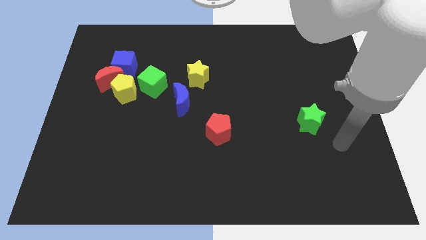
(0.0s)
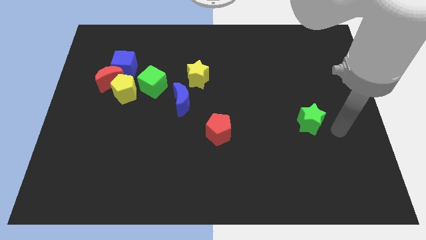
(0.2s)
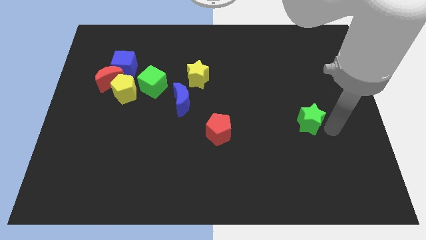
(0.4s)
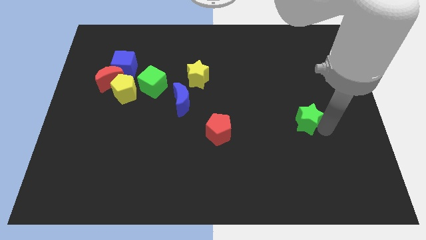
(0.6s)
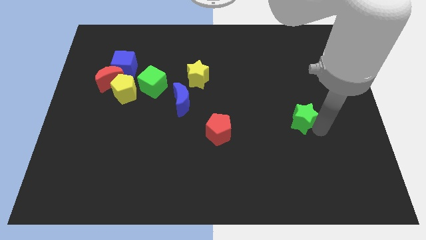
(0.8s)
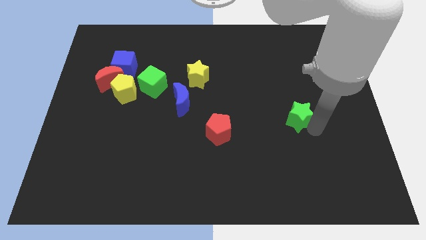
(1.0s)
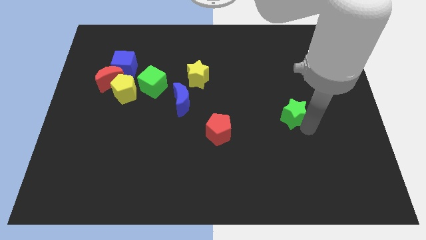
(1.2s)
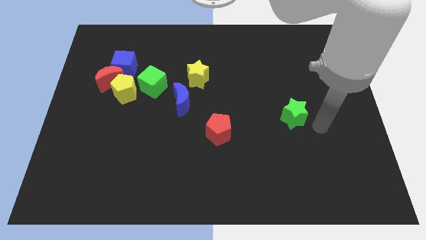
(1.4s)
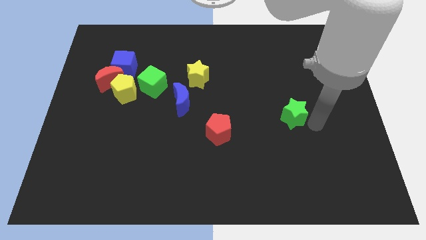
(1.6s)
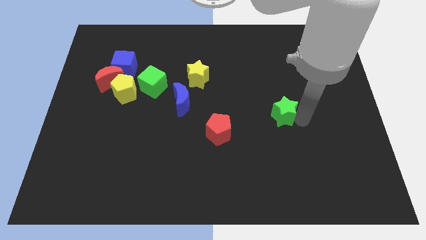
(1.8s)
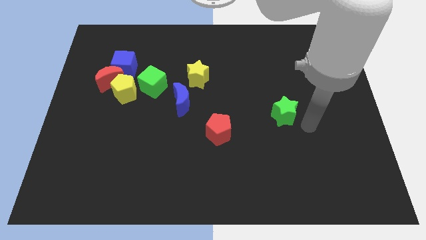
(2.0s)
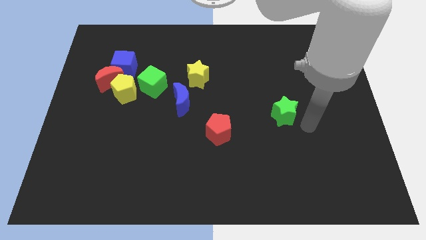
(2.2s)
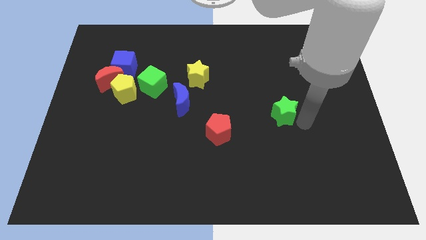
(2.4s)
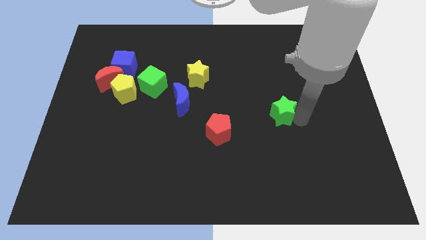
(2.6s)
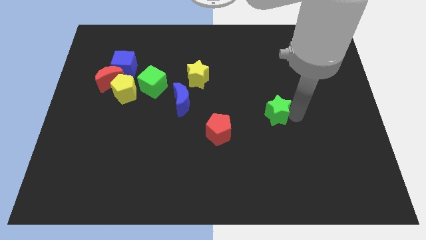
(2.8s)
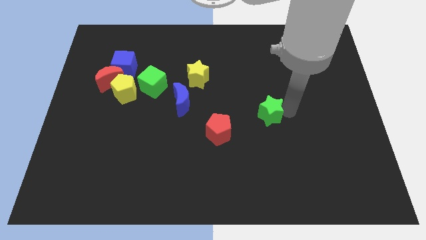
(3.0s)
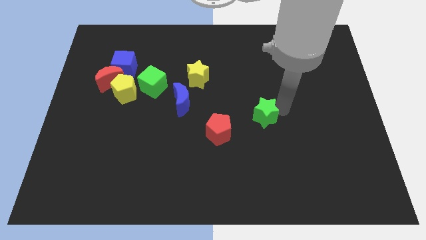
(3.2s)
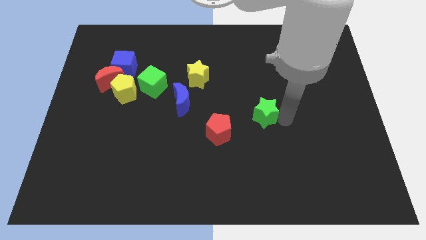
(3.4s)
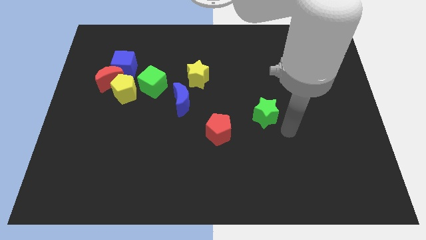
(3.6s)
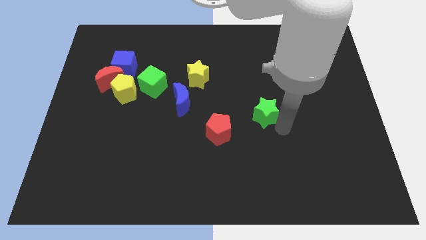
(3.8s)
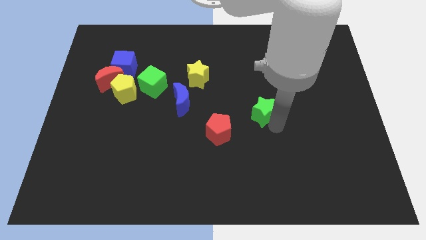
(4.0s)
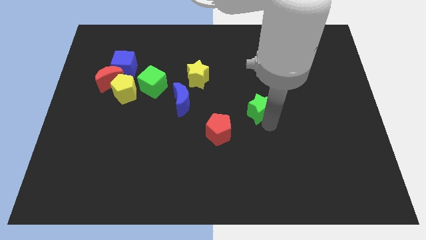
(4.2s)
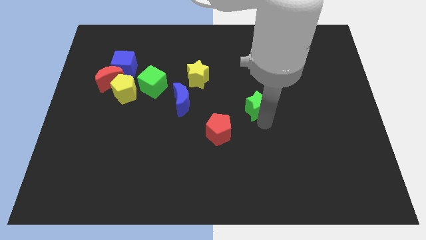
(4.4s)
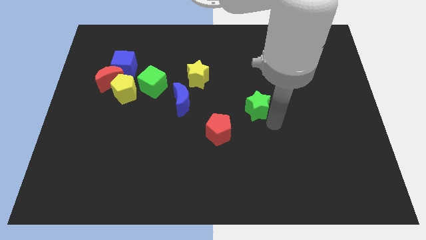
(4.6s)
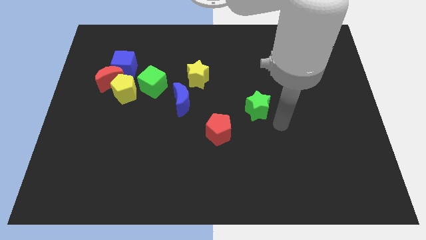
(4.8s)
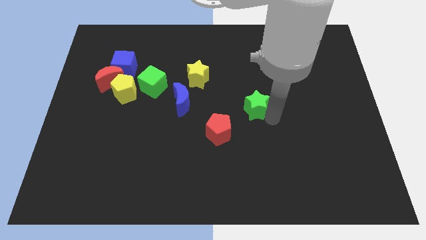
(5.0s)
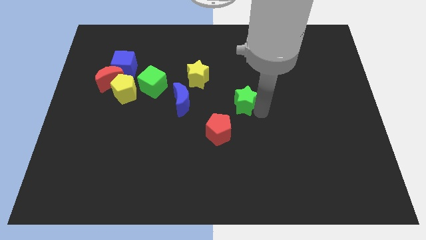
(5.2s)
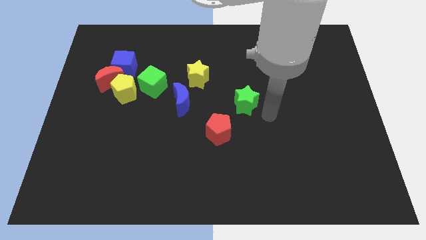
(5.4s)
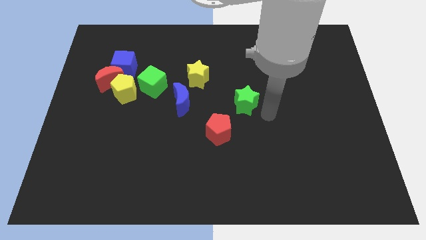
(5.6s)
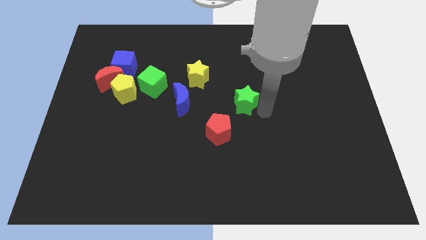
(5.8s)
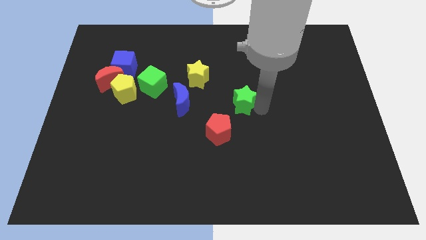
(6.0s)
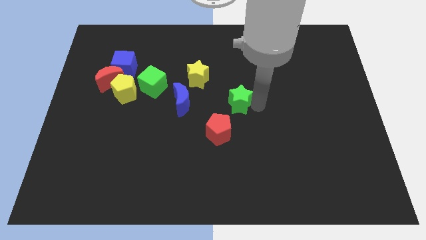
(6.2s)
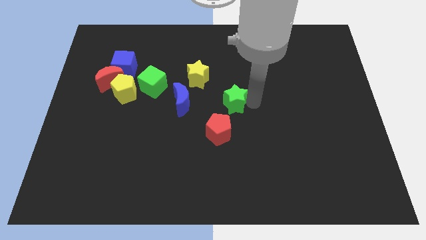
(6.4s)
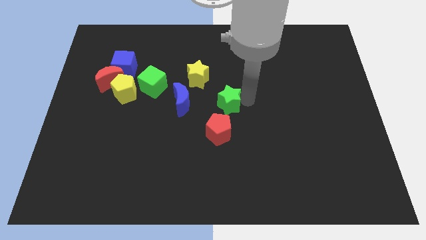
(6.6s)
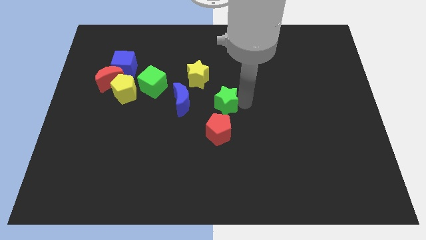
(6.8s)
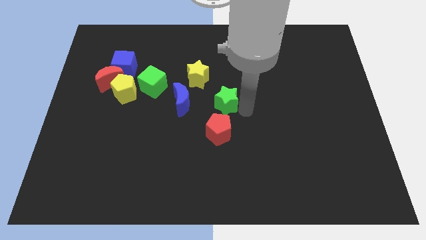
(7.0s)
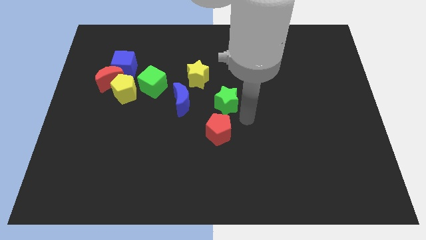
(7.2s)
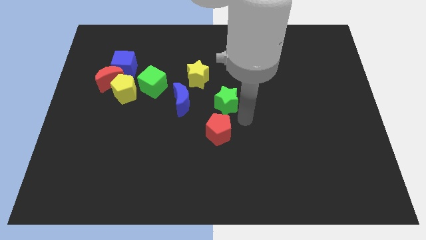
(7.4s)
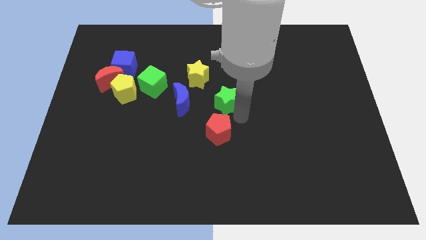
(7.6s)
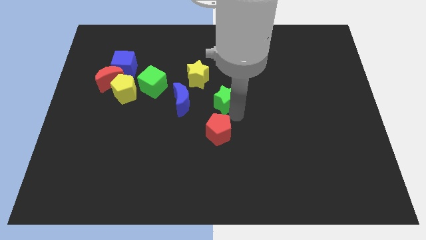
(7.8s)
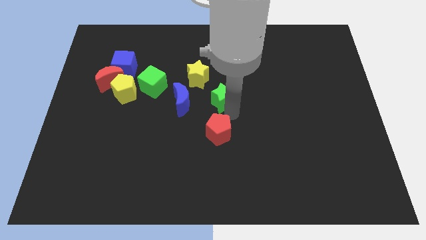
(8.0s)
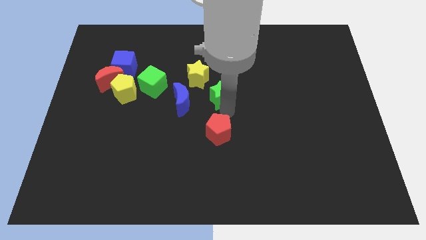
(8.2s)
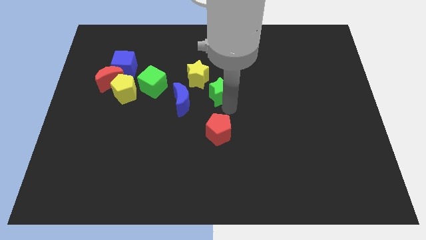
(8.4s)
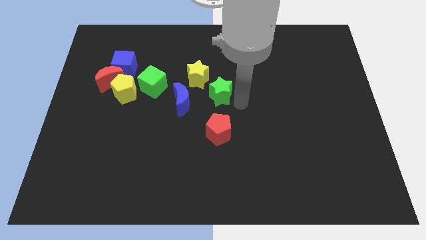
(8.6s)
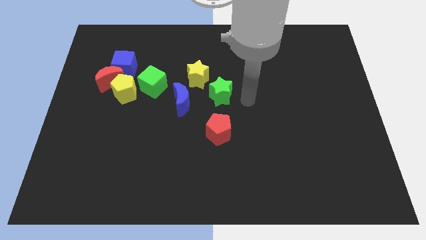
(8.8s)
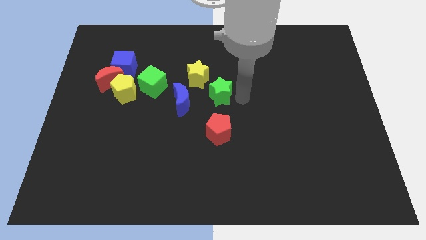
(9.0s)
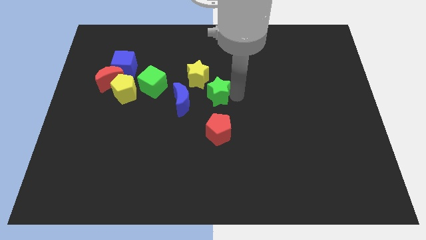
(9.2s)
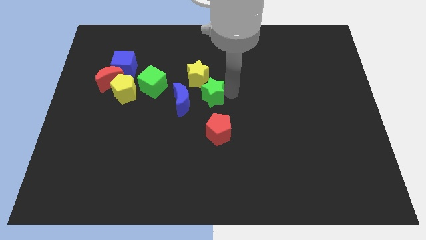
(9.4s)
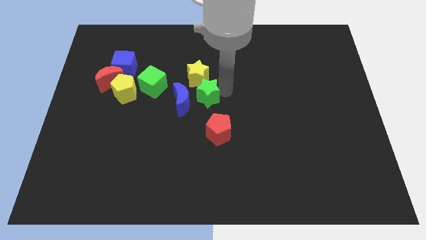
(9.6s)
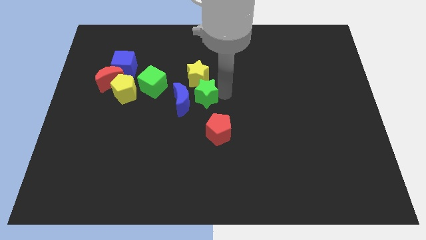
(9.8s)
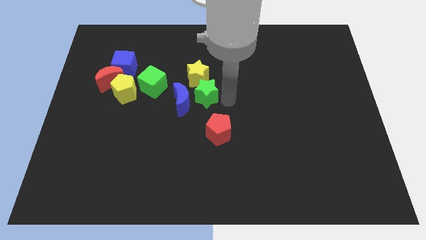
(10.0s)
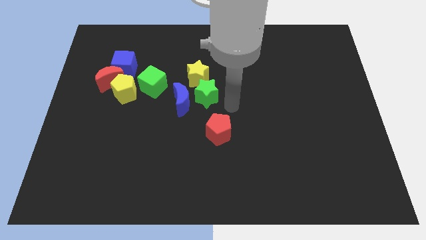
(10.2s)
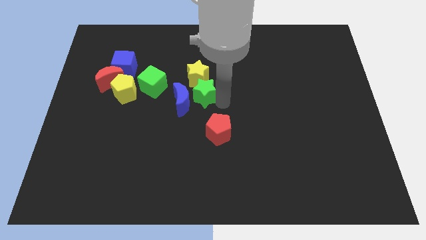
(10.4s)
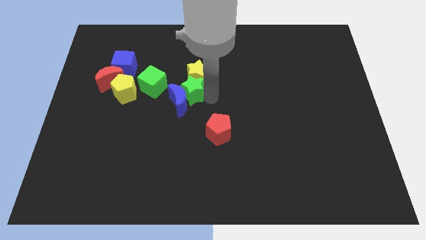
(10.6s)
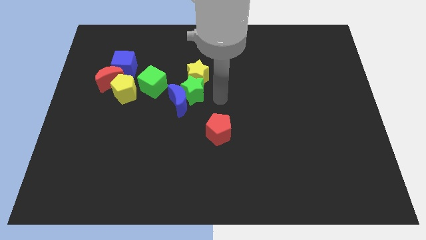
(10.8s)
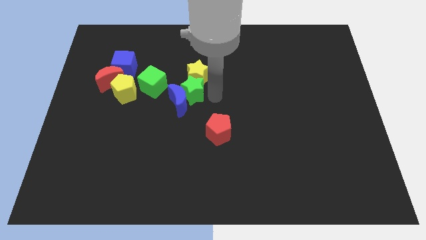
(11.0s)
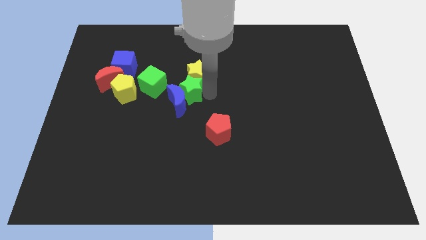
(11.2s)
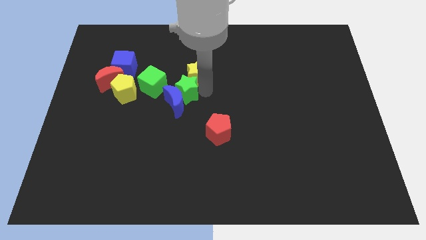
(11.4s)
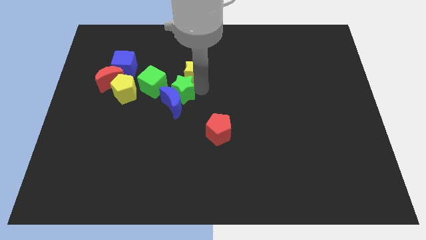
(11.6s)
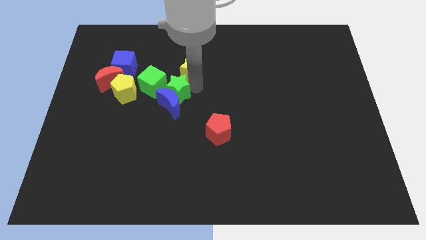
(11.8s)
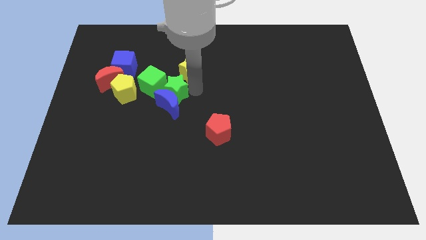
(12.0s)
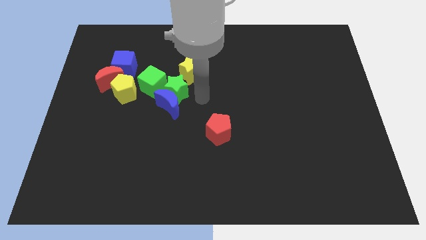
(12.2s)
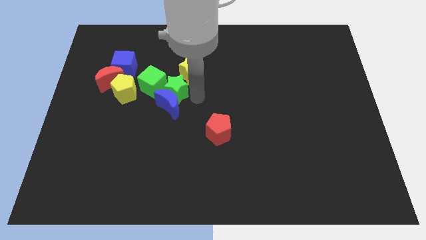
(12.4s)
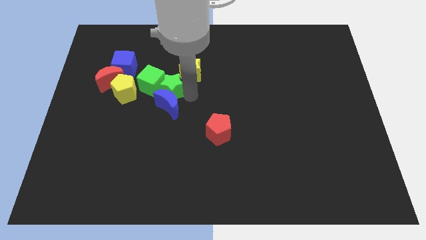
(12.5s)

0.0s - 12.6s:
slide the green star close to the green cube

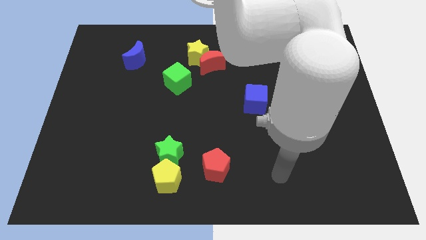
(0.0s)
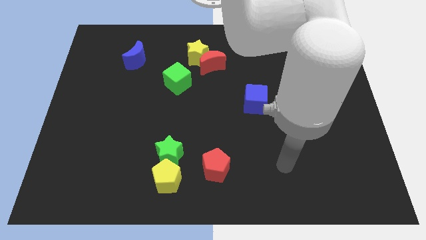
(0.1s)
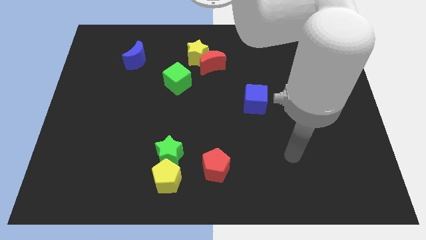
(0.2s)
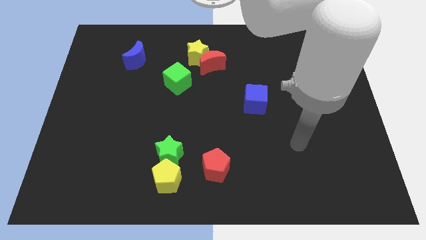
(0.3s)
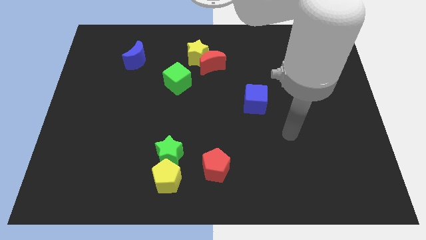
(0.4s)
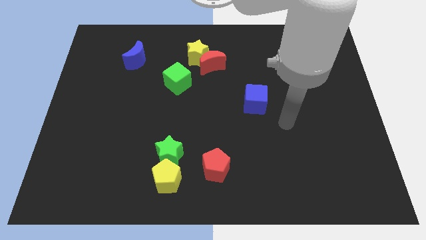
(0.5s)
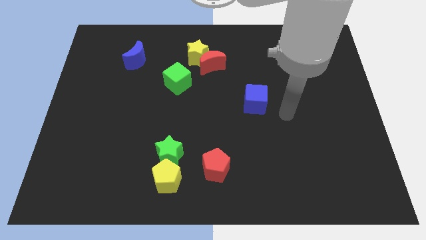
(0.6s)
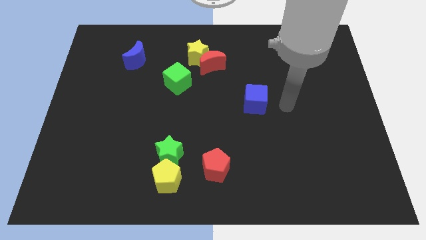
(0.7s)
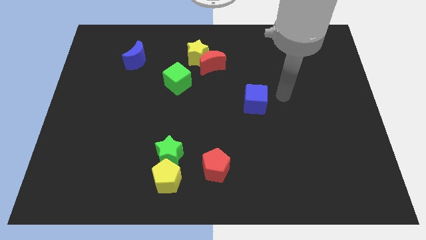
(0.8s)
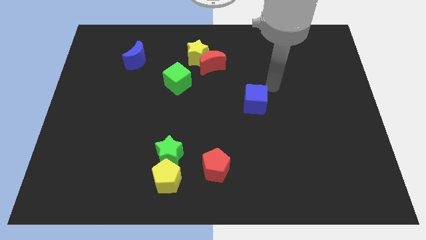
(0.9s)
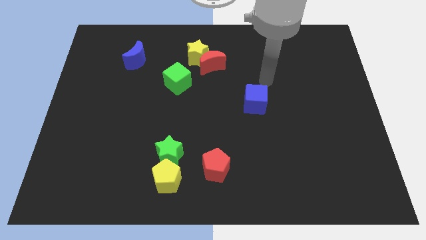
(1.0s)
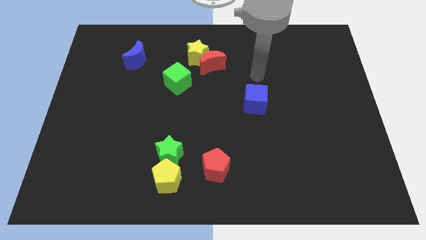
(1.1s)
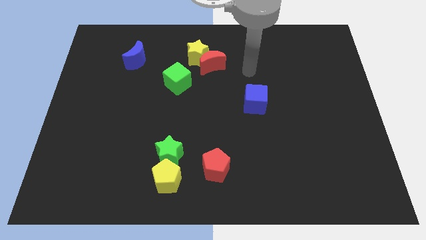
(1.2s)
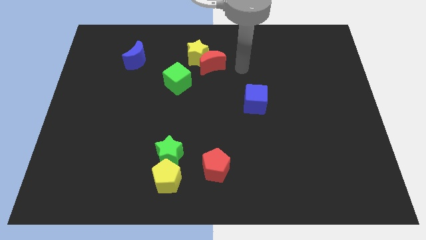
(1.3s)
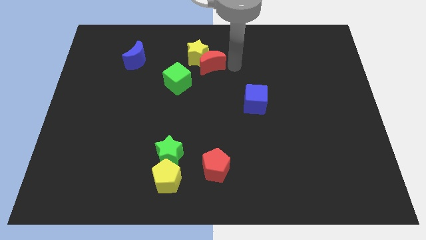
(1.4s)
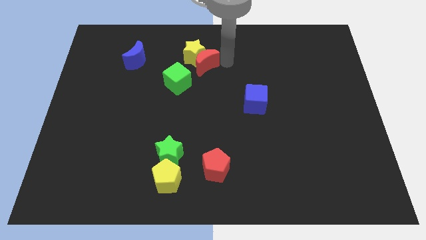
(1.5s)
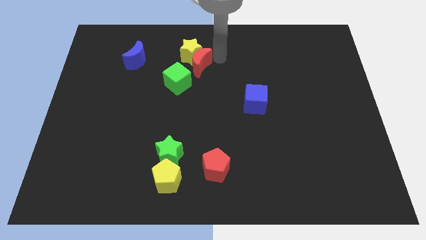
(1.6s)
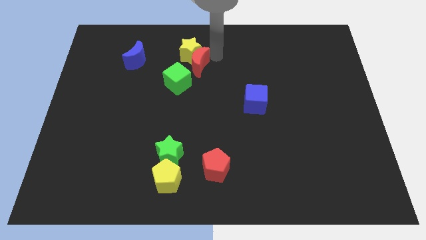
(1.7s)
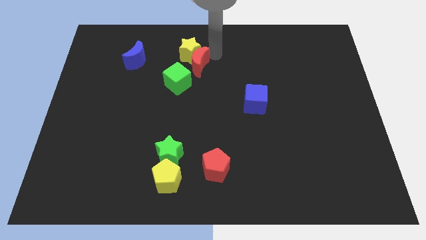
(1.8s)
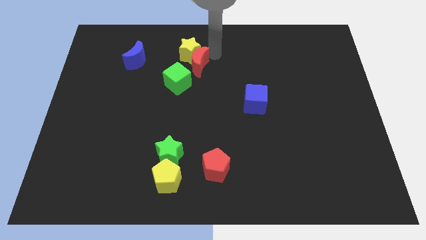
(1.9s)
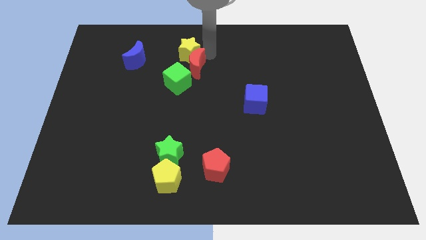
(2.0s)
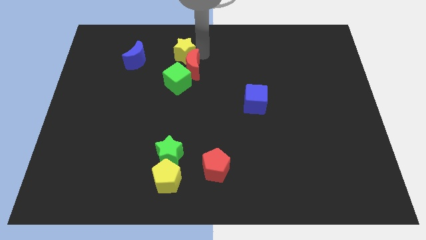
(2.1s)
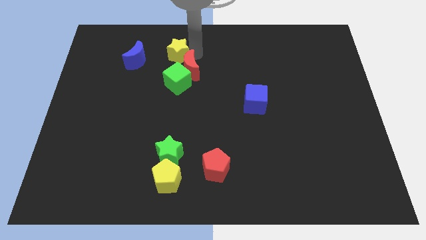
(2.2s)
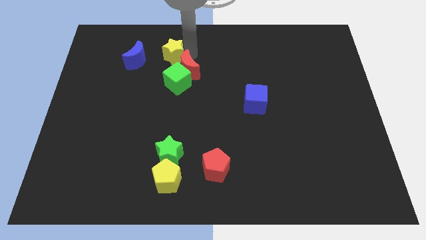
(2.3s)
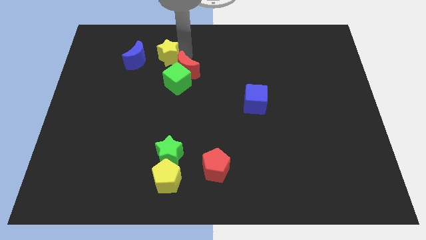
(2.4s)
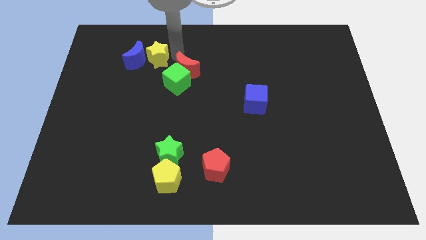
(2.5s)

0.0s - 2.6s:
push the yellow star close to the blue moon
